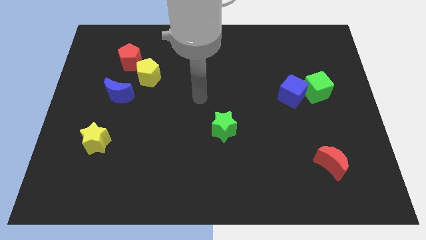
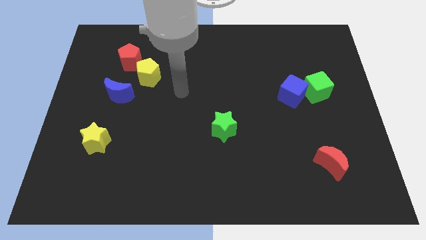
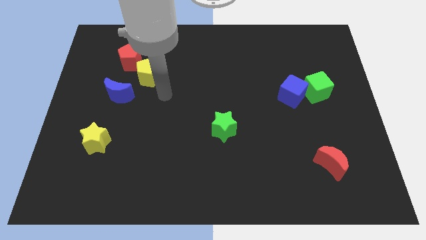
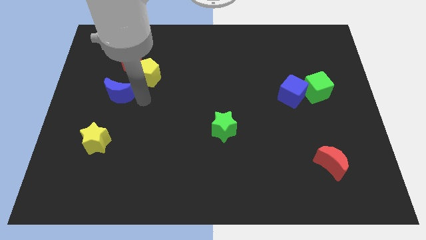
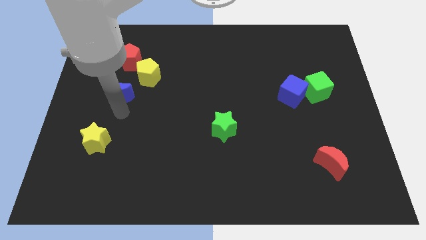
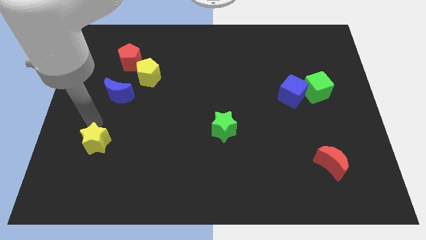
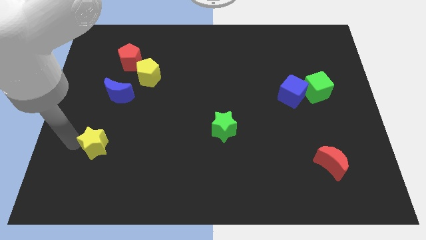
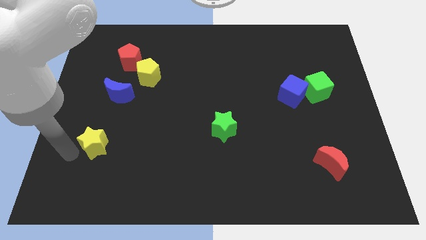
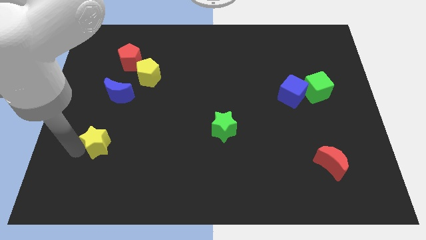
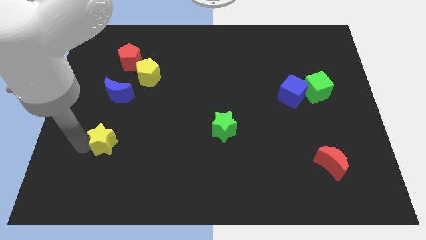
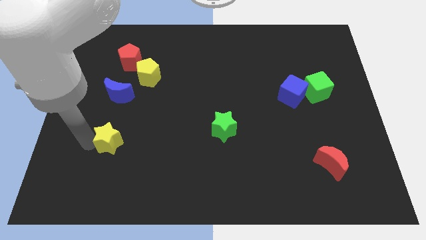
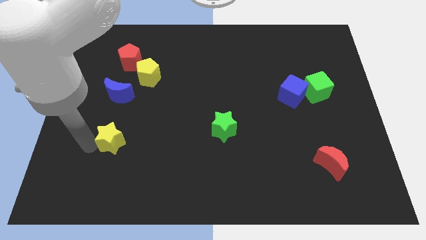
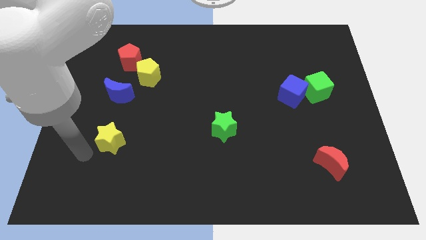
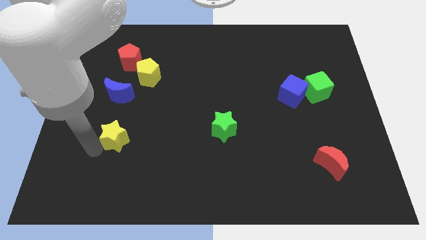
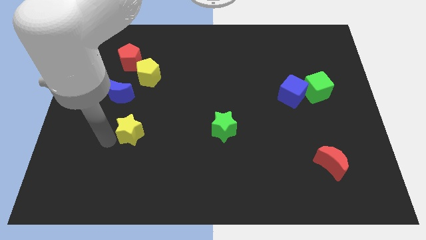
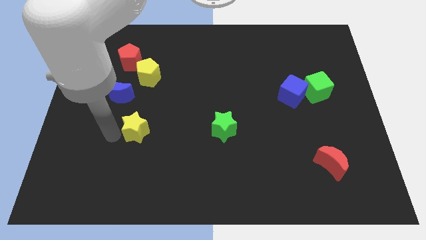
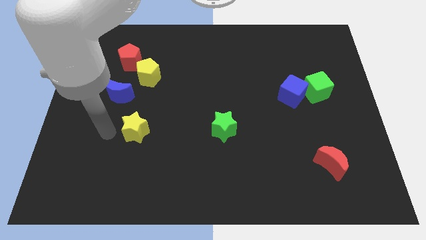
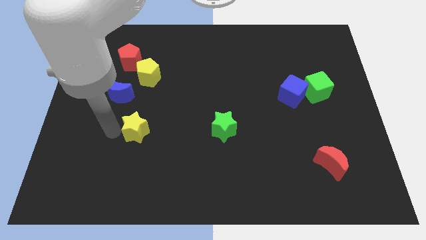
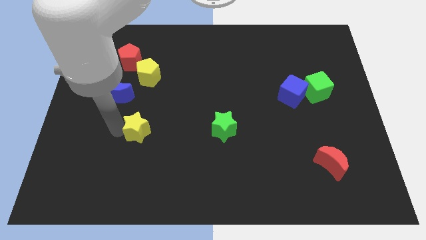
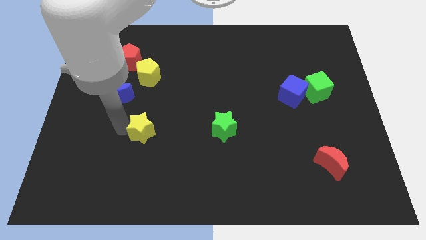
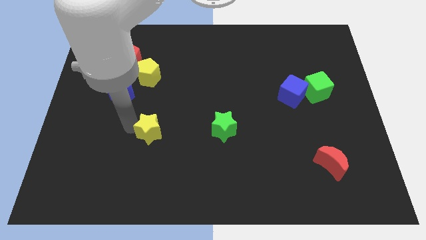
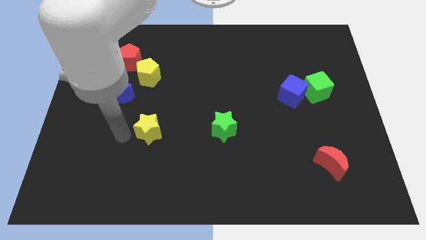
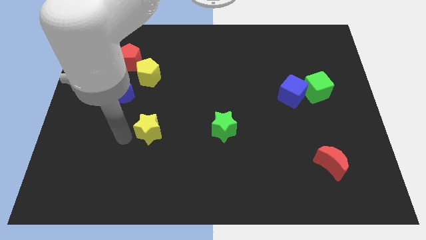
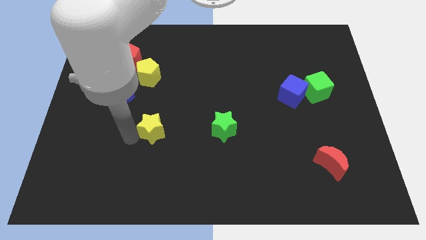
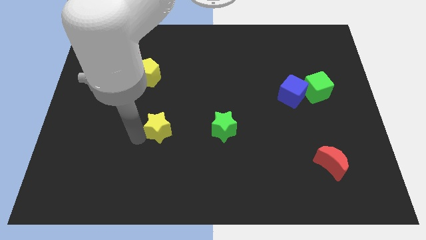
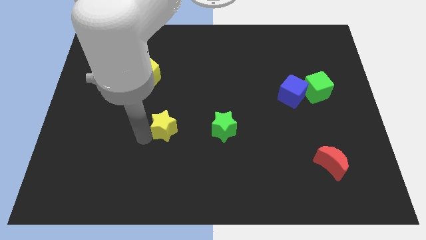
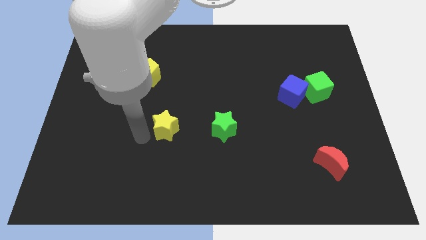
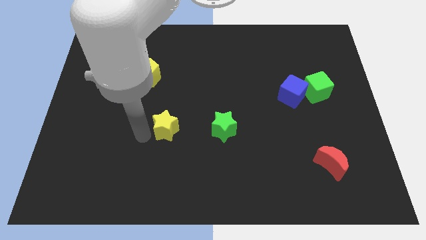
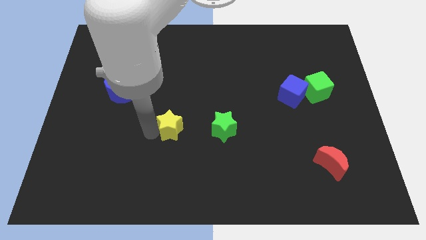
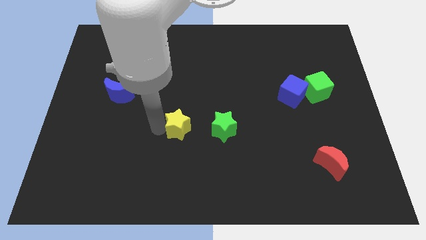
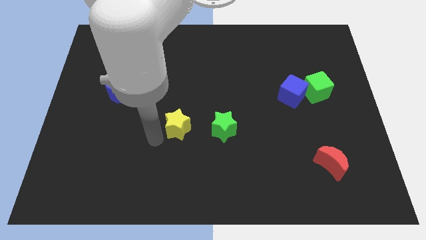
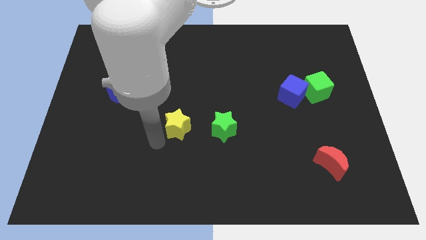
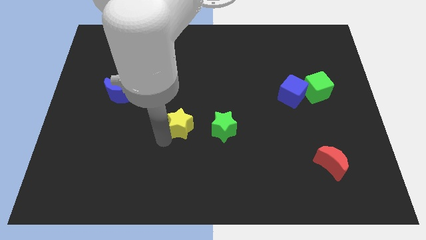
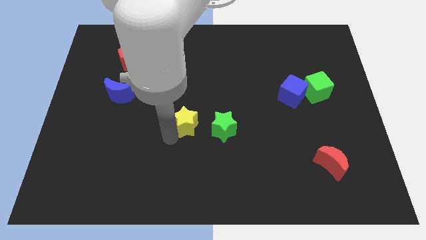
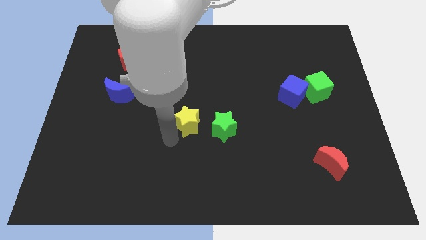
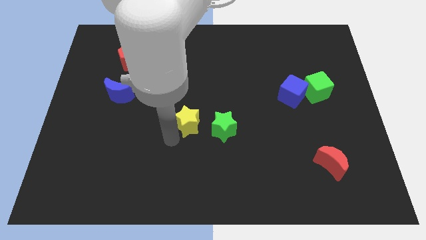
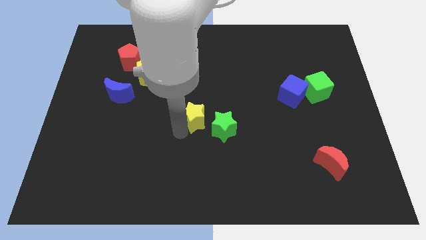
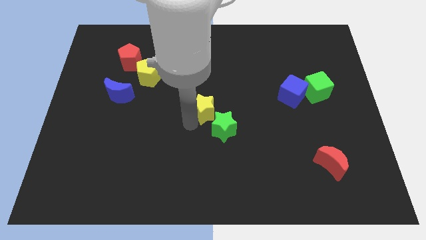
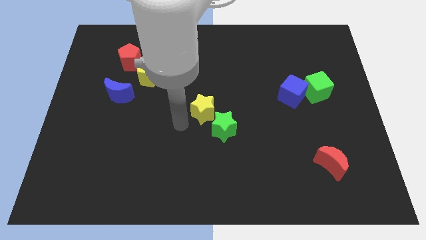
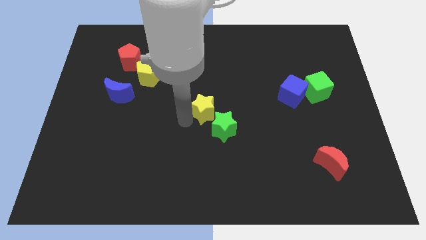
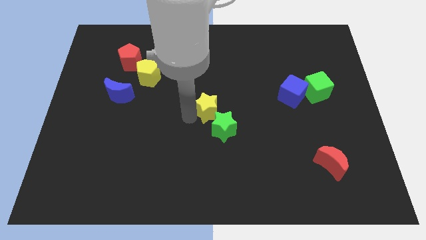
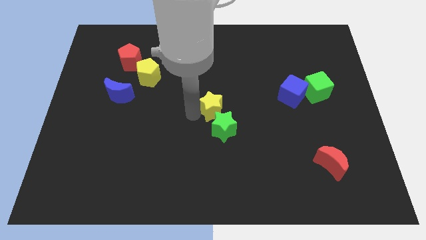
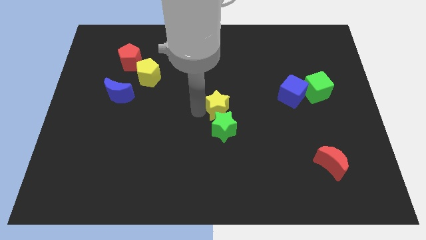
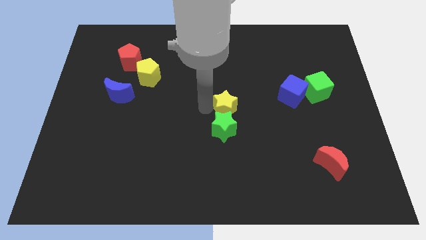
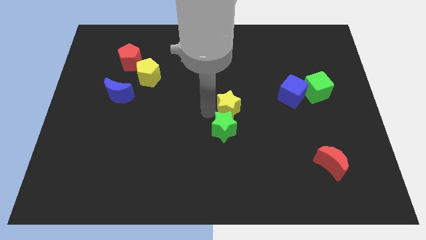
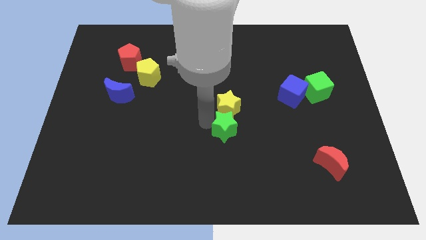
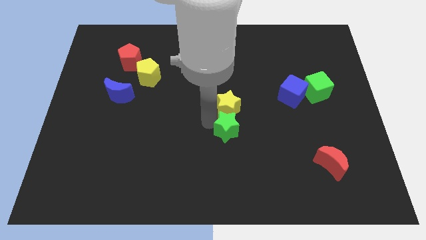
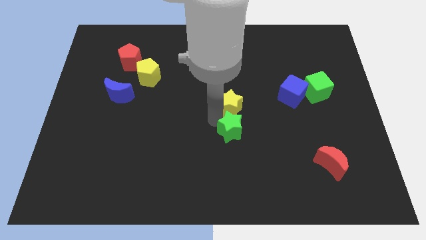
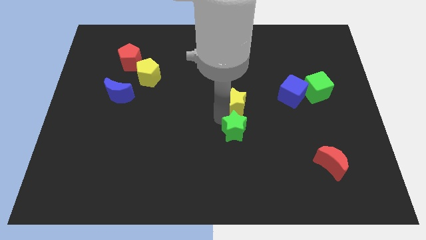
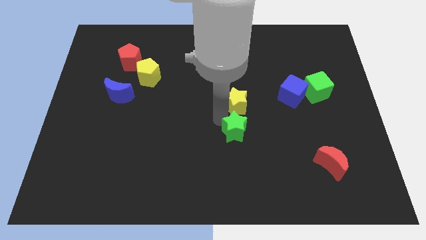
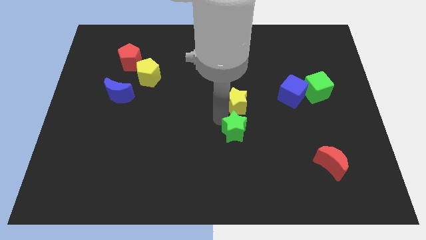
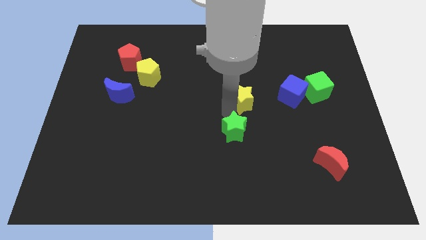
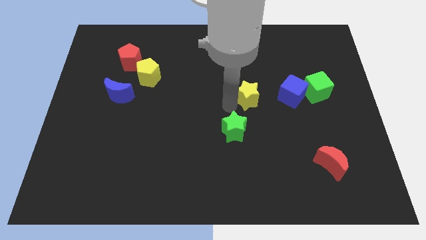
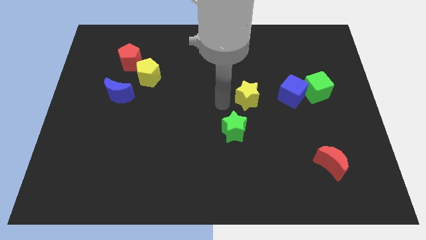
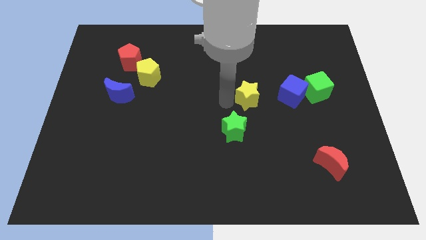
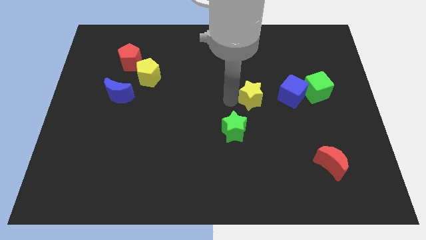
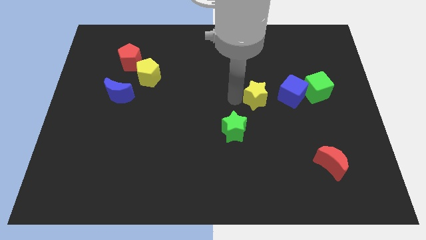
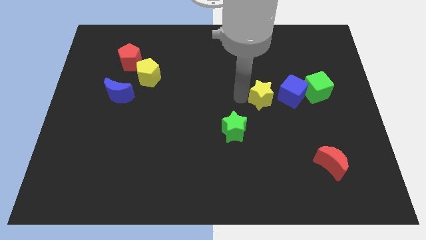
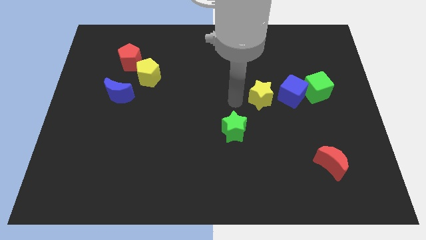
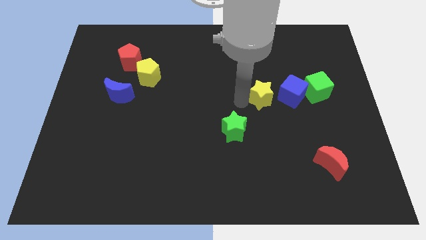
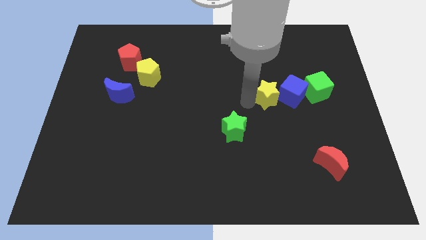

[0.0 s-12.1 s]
put the yellow star towards the blue cube
